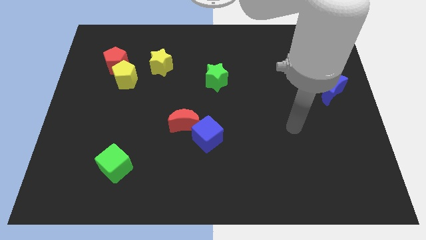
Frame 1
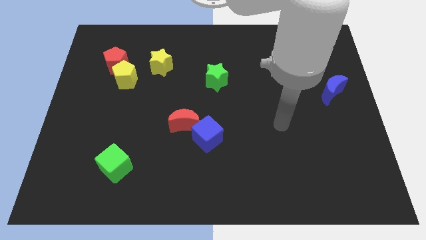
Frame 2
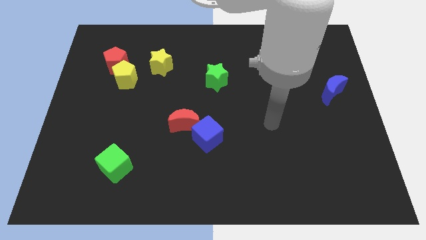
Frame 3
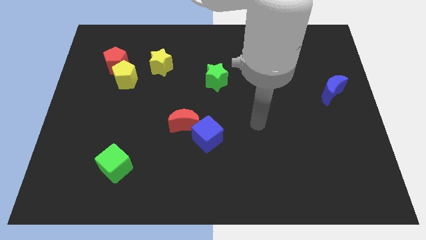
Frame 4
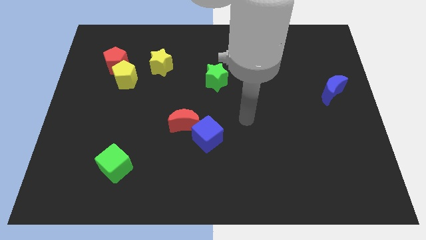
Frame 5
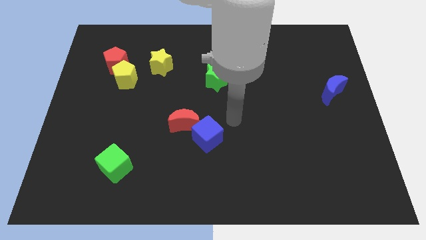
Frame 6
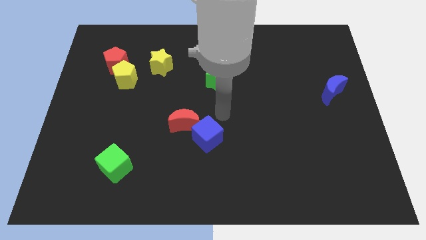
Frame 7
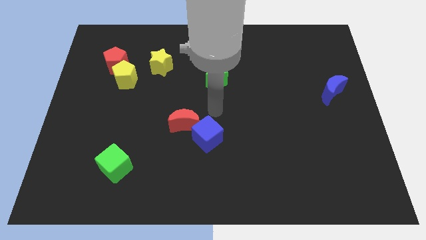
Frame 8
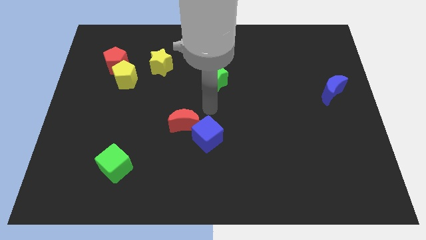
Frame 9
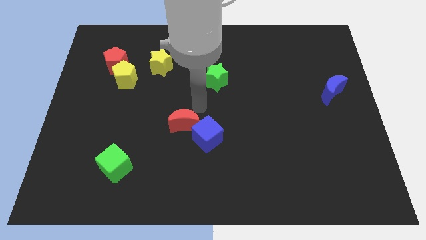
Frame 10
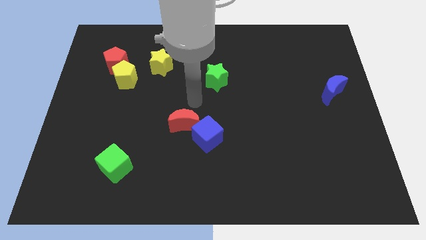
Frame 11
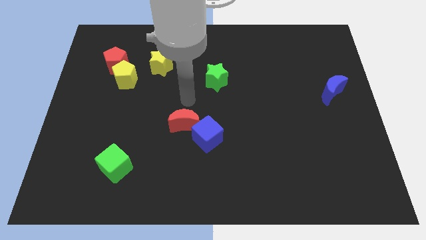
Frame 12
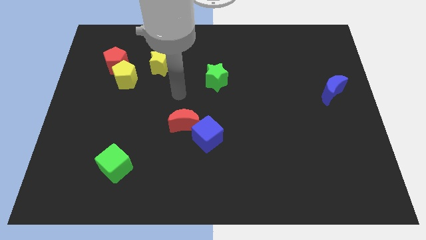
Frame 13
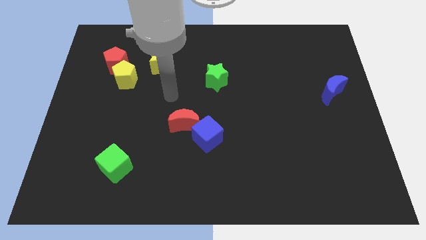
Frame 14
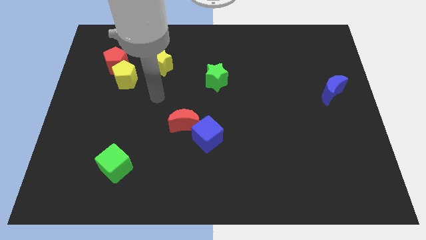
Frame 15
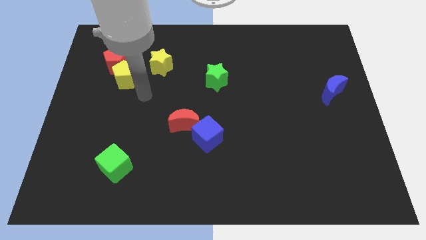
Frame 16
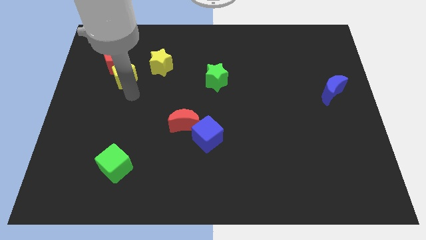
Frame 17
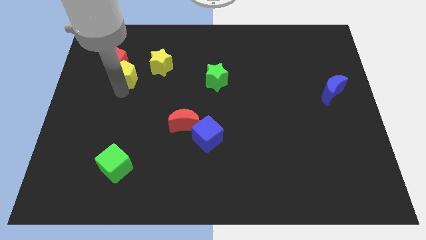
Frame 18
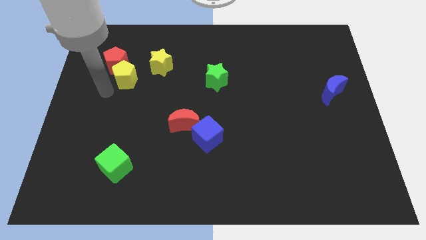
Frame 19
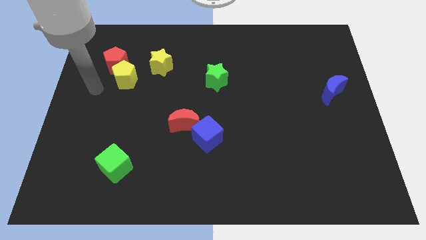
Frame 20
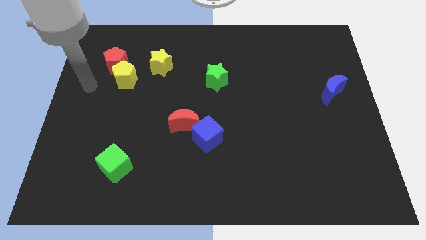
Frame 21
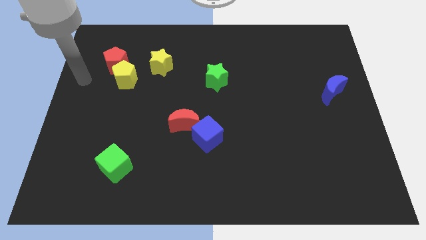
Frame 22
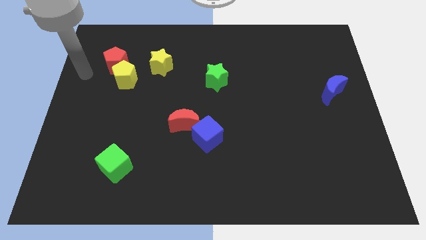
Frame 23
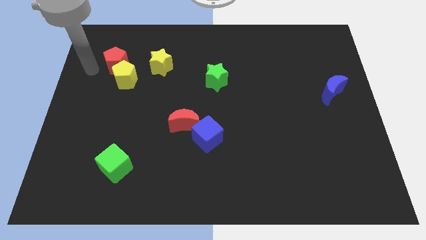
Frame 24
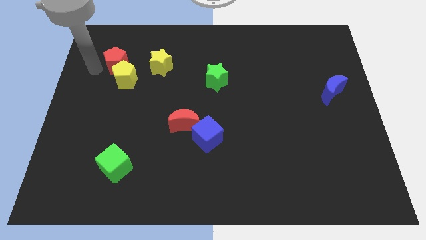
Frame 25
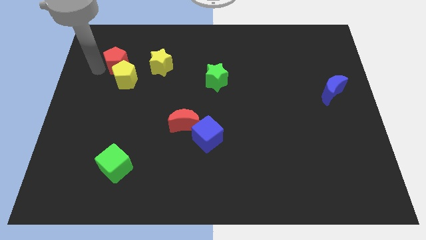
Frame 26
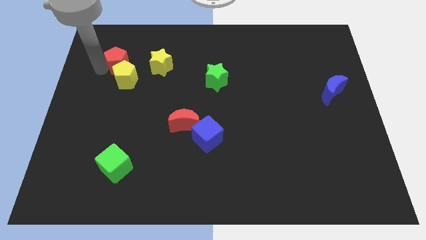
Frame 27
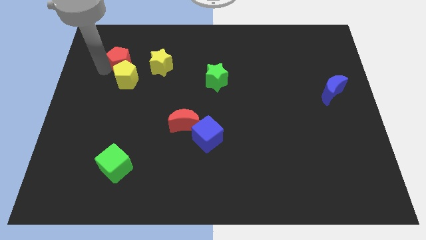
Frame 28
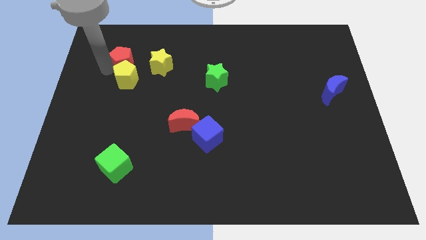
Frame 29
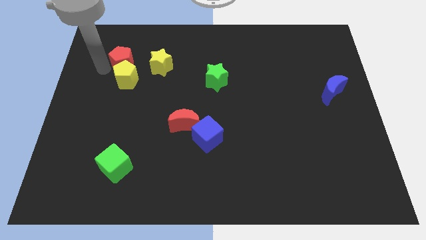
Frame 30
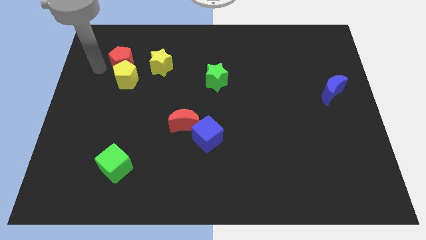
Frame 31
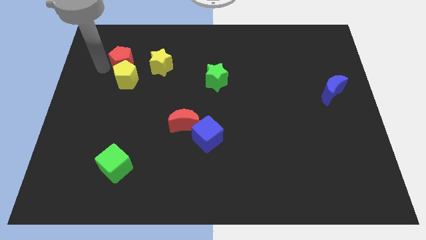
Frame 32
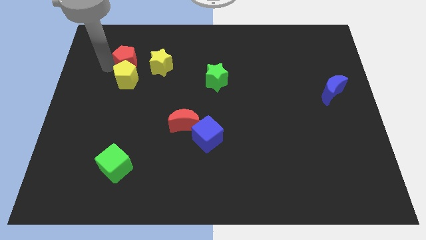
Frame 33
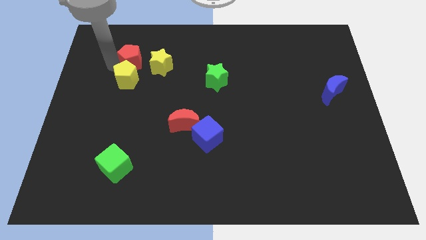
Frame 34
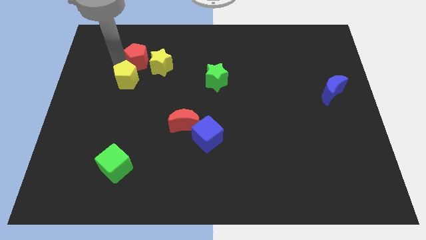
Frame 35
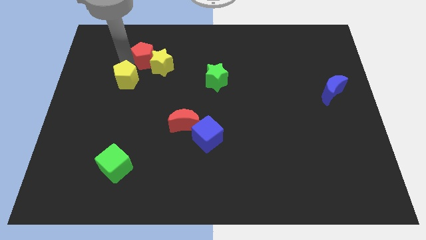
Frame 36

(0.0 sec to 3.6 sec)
slide the red pentagon a little right

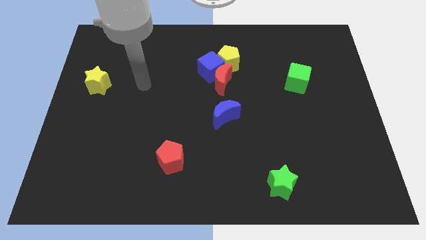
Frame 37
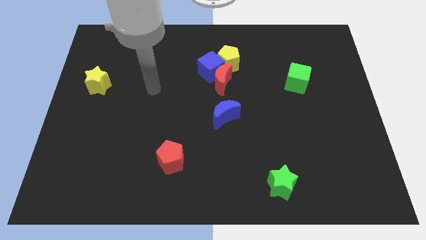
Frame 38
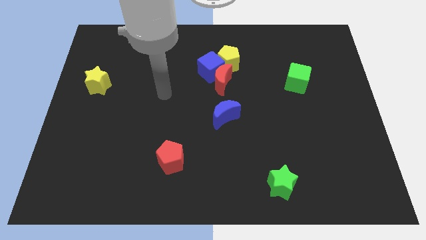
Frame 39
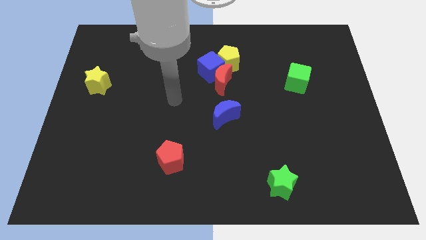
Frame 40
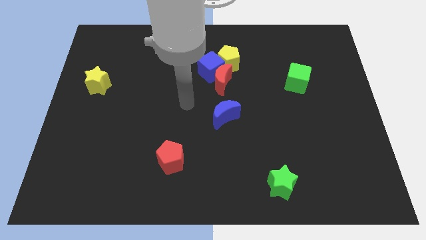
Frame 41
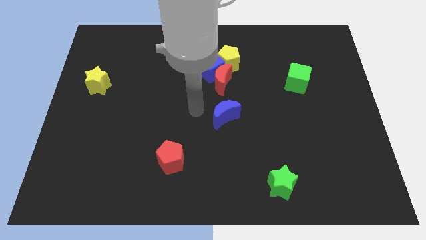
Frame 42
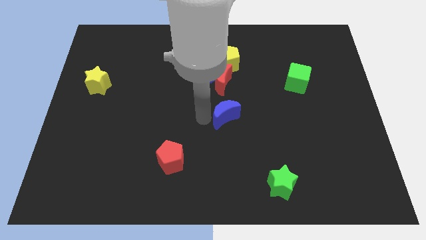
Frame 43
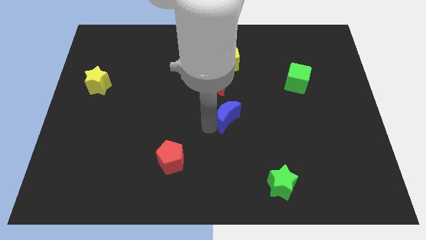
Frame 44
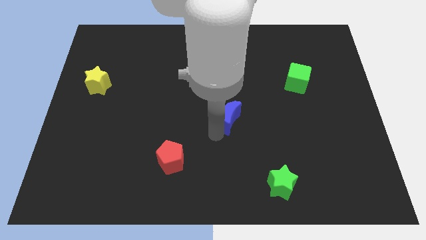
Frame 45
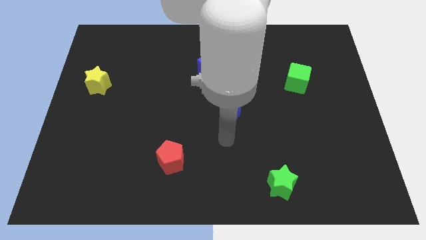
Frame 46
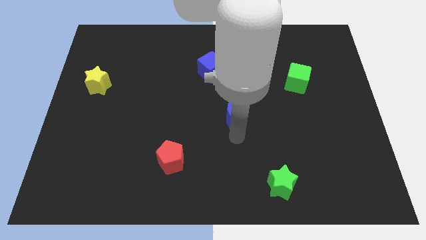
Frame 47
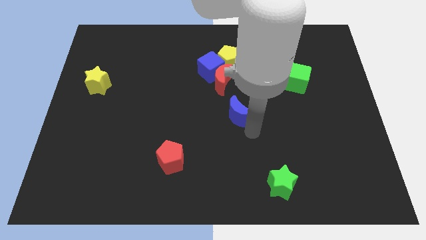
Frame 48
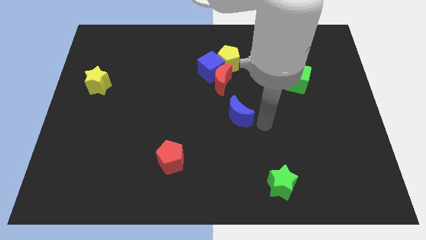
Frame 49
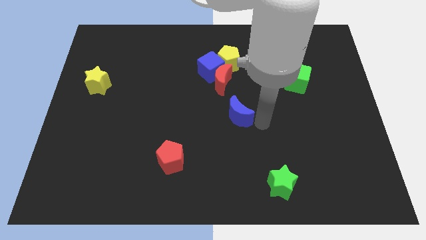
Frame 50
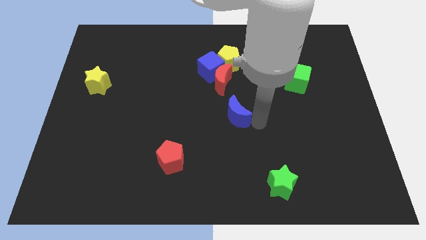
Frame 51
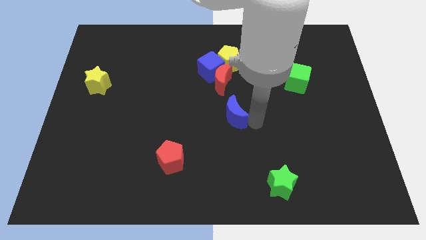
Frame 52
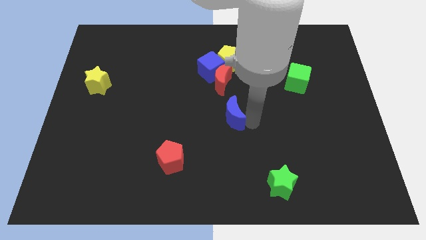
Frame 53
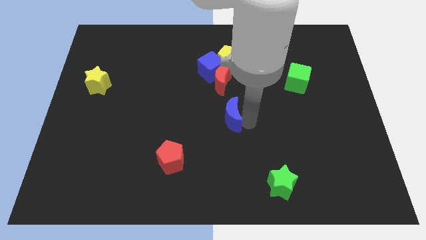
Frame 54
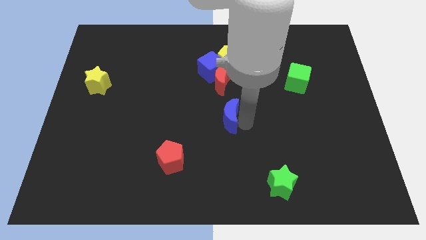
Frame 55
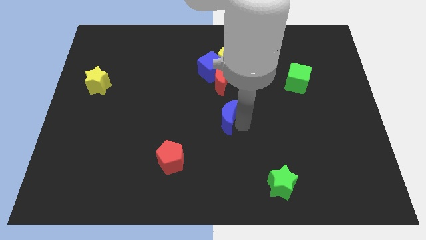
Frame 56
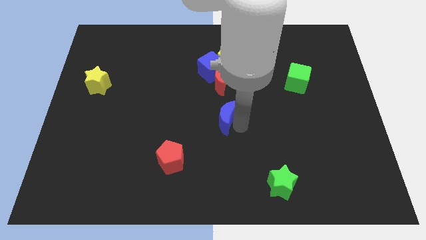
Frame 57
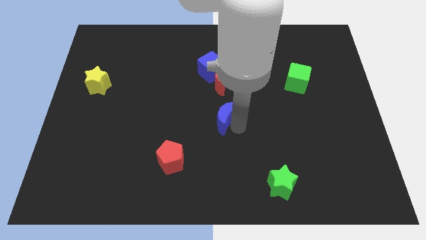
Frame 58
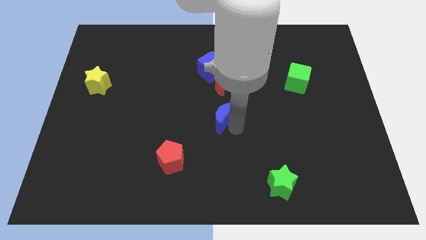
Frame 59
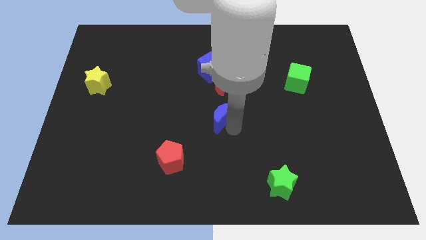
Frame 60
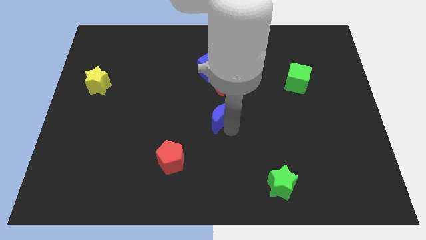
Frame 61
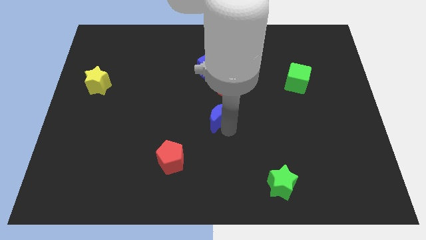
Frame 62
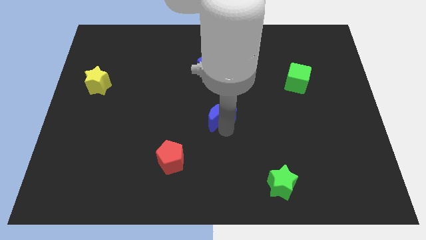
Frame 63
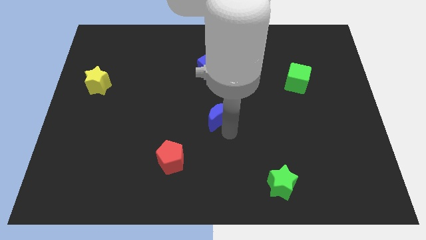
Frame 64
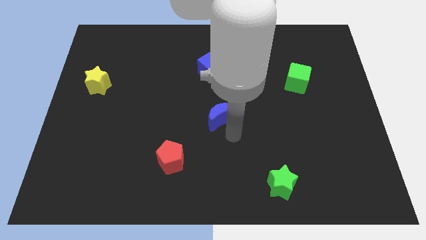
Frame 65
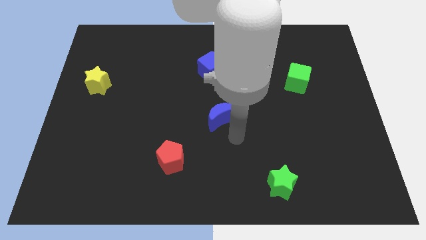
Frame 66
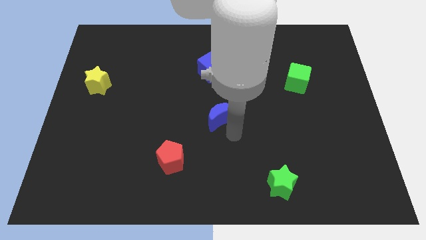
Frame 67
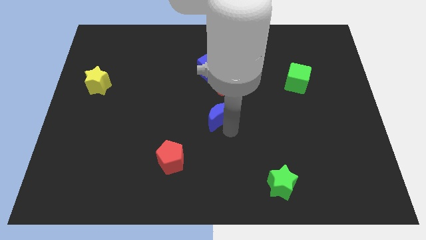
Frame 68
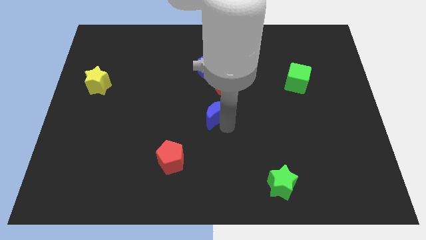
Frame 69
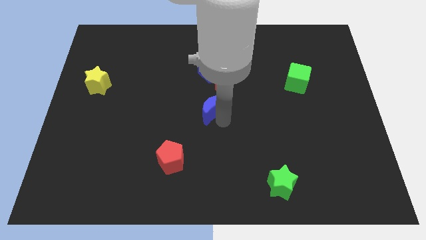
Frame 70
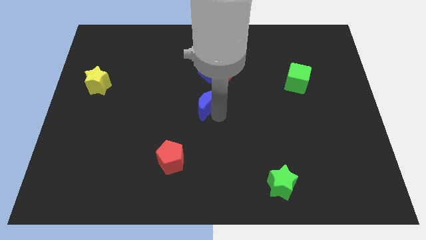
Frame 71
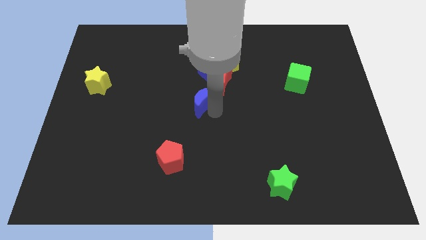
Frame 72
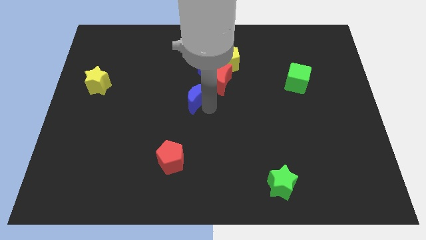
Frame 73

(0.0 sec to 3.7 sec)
push the blue moon upwards and then to the left somewhat

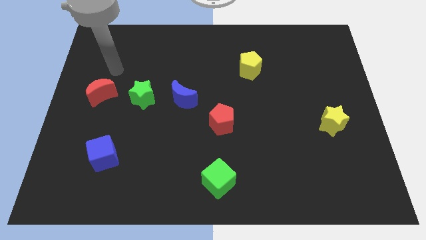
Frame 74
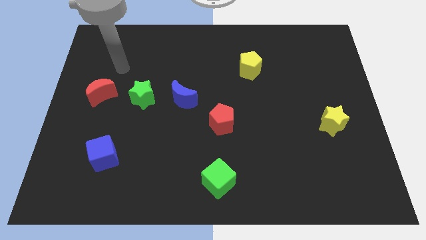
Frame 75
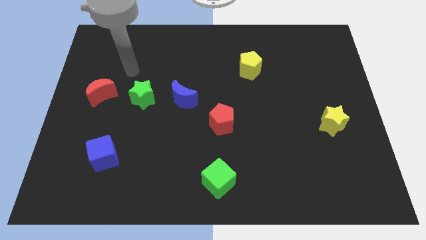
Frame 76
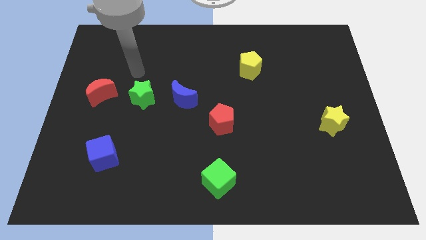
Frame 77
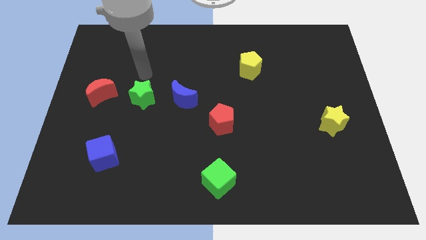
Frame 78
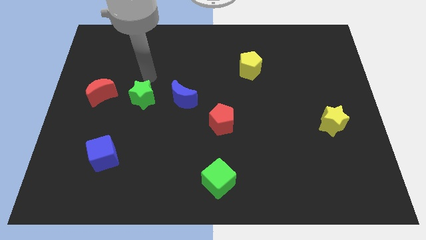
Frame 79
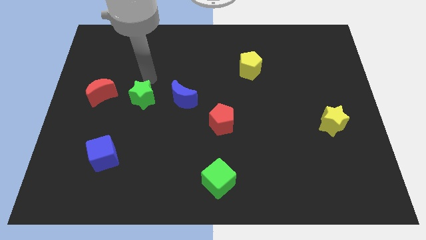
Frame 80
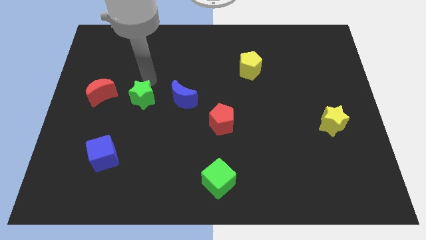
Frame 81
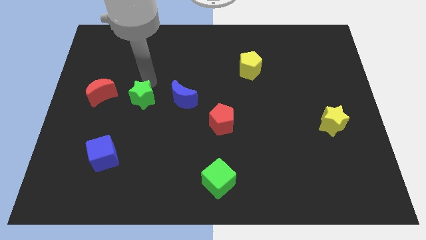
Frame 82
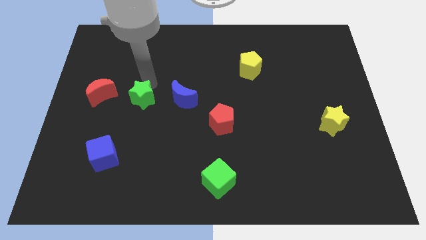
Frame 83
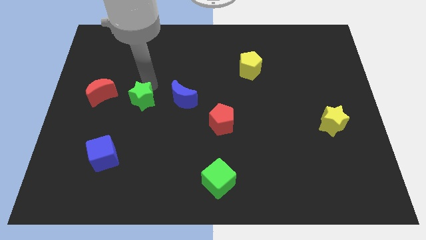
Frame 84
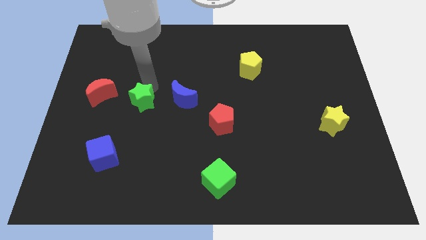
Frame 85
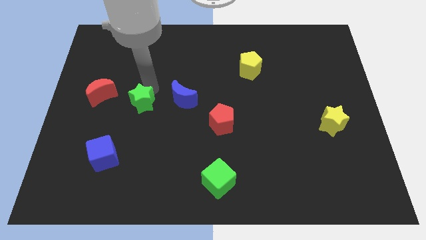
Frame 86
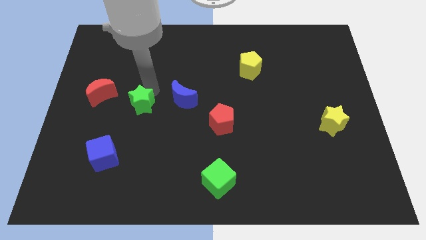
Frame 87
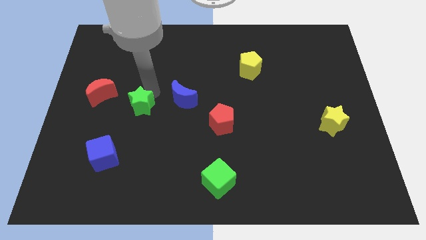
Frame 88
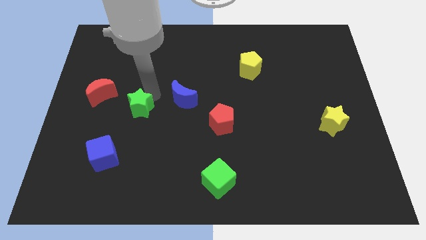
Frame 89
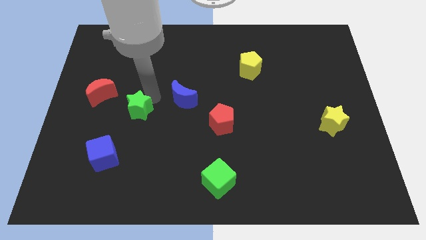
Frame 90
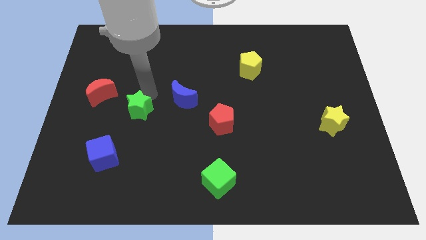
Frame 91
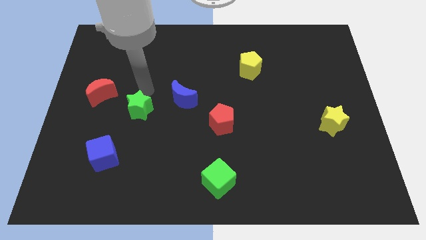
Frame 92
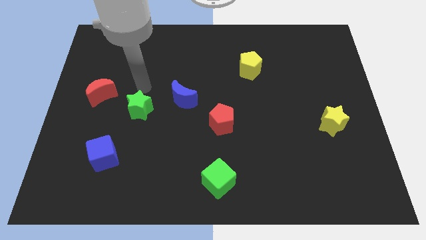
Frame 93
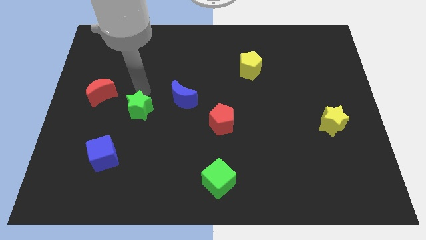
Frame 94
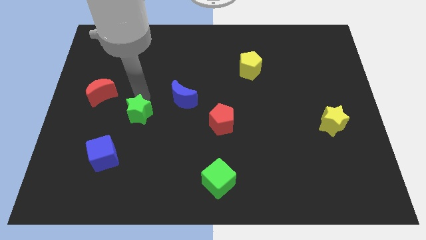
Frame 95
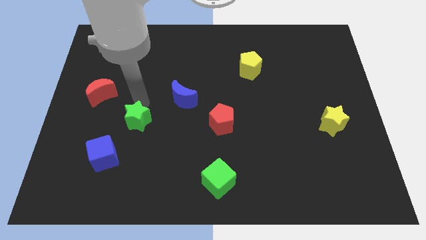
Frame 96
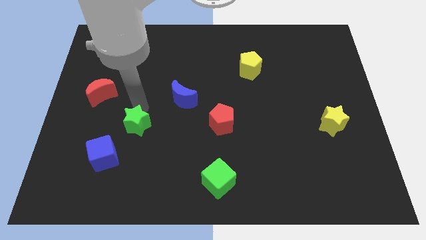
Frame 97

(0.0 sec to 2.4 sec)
slightly slide the green star down
